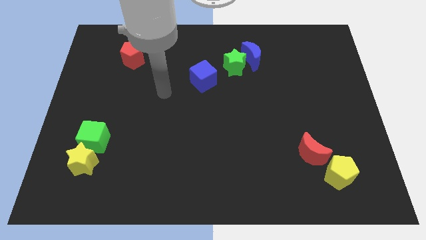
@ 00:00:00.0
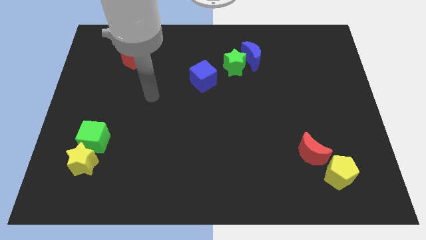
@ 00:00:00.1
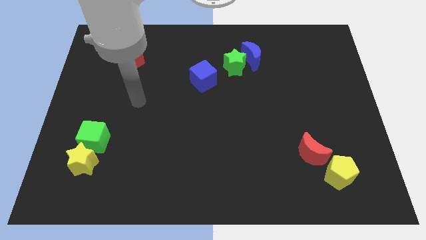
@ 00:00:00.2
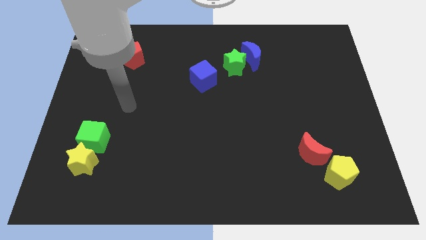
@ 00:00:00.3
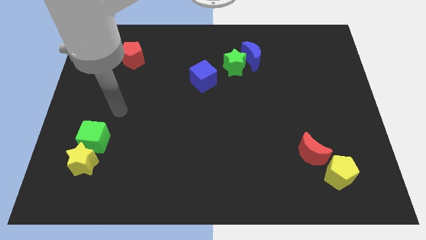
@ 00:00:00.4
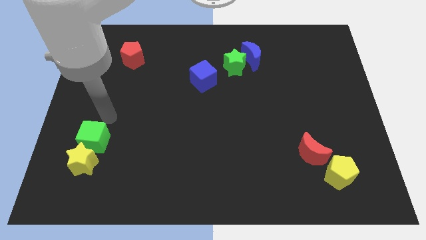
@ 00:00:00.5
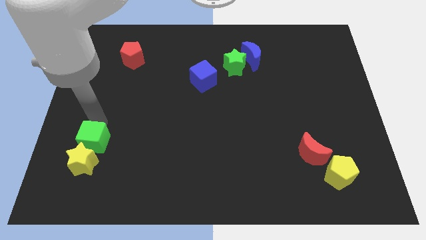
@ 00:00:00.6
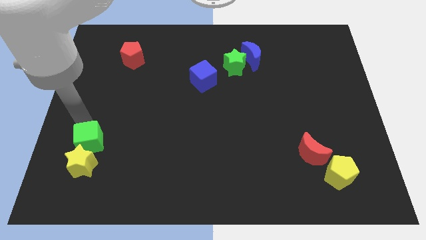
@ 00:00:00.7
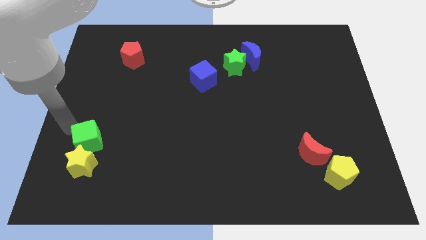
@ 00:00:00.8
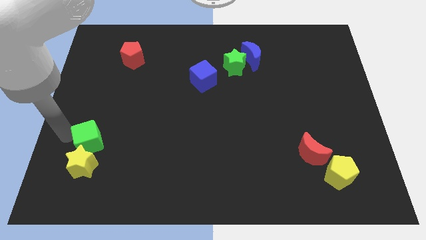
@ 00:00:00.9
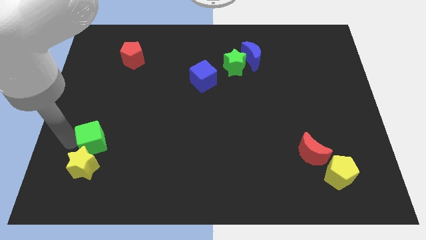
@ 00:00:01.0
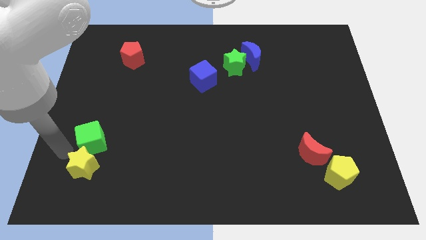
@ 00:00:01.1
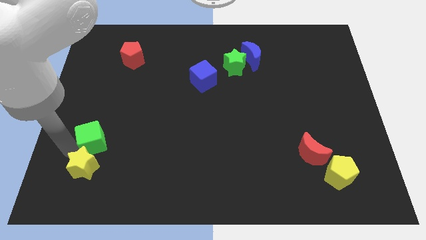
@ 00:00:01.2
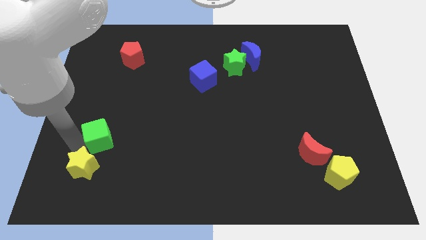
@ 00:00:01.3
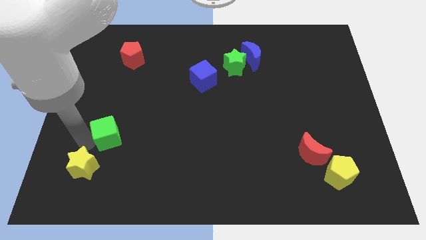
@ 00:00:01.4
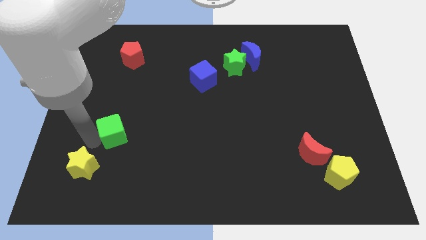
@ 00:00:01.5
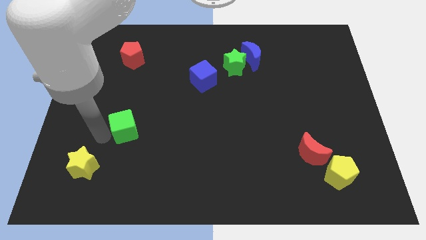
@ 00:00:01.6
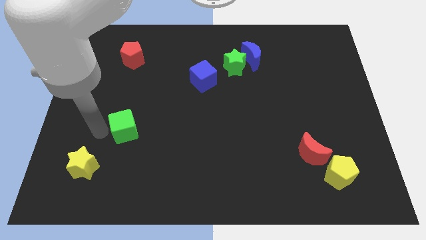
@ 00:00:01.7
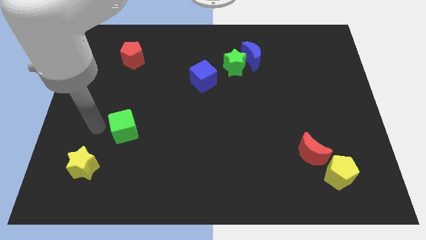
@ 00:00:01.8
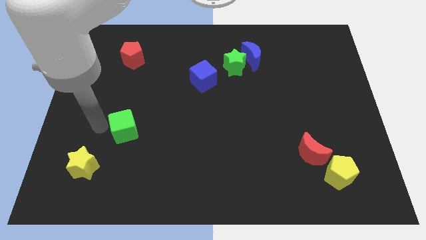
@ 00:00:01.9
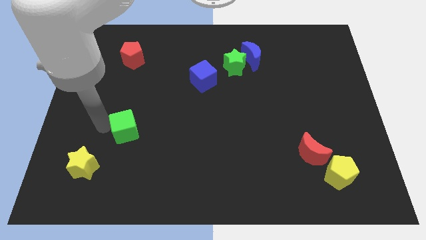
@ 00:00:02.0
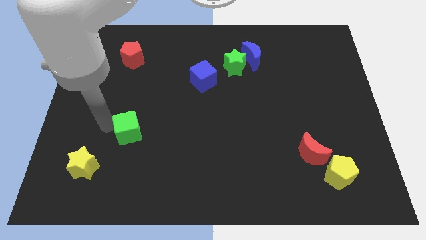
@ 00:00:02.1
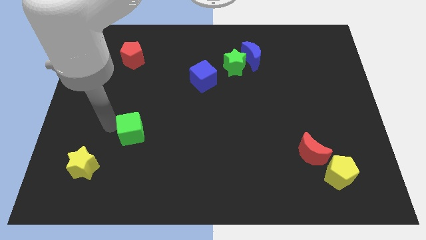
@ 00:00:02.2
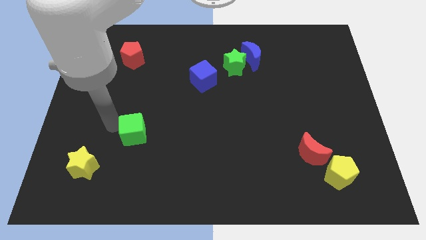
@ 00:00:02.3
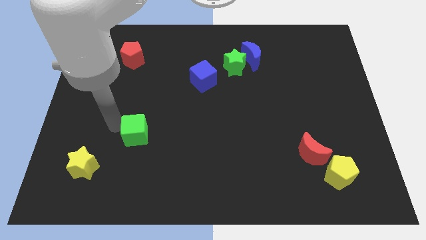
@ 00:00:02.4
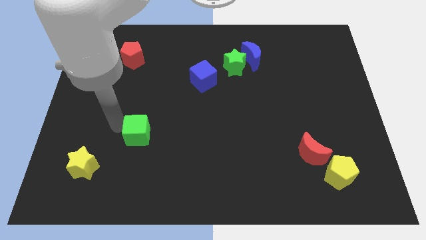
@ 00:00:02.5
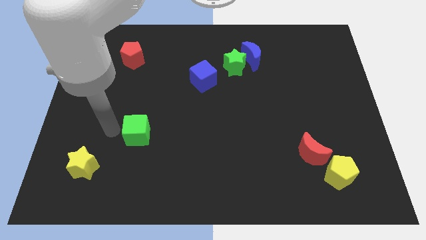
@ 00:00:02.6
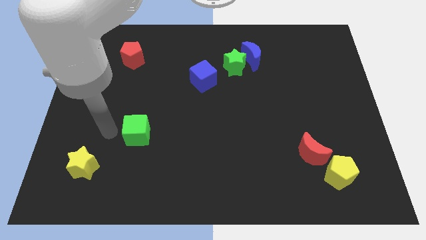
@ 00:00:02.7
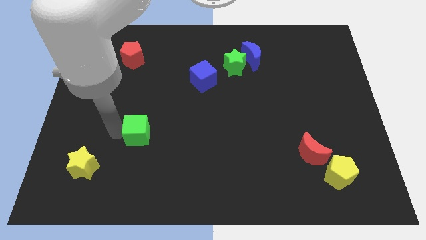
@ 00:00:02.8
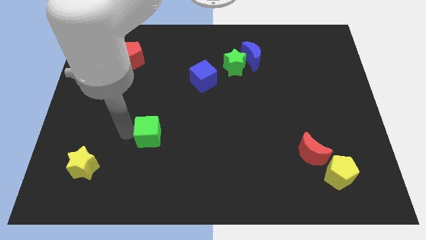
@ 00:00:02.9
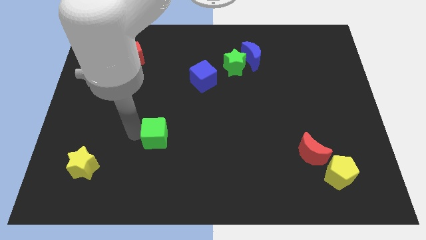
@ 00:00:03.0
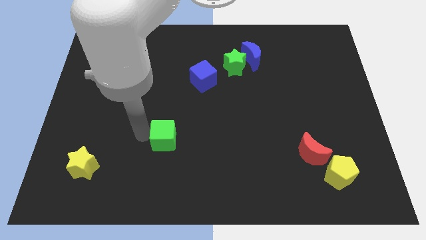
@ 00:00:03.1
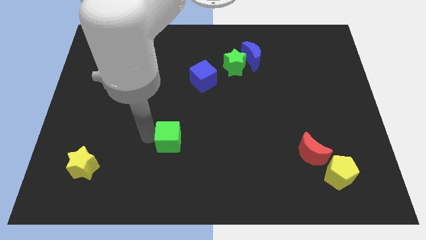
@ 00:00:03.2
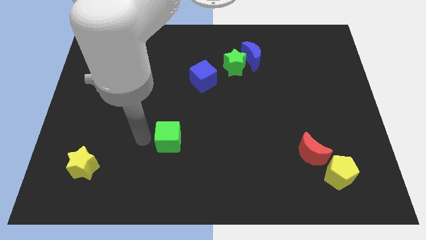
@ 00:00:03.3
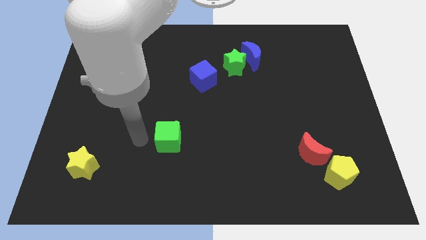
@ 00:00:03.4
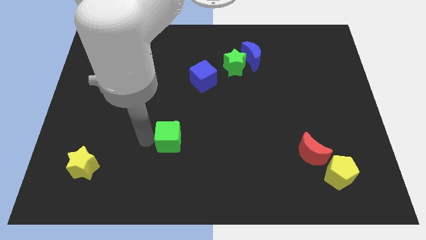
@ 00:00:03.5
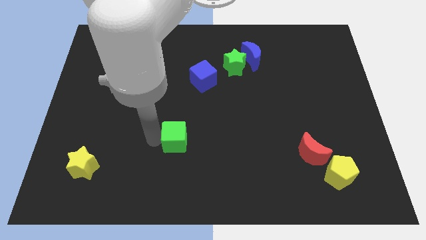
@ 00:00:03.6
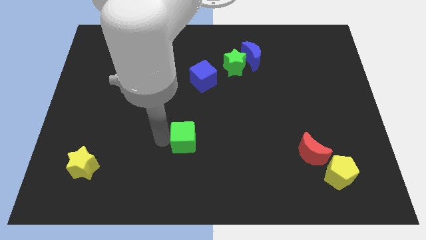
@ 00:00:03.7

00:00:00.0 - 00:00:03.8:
push the green cube to the right

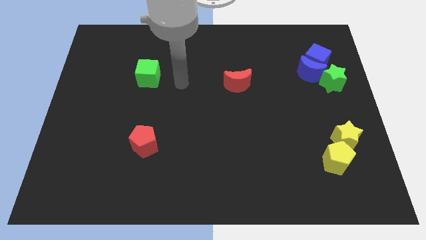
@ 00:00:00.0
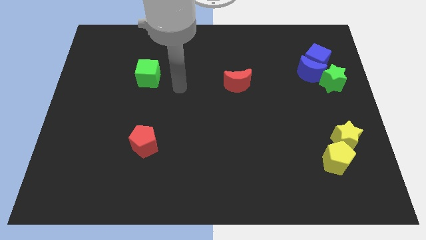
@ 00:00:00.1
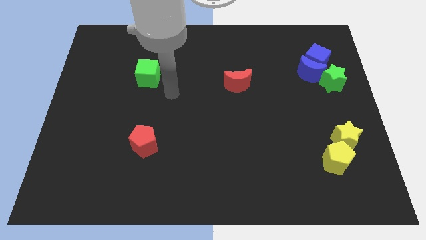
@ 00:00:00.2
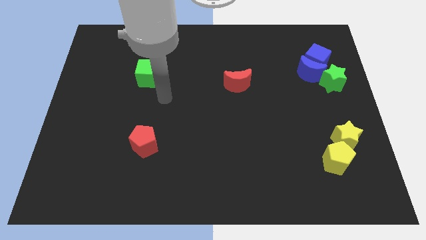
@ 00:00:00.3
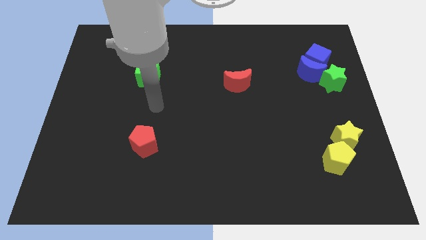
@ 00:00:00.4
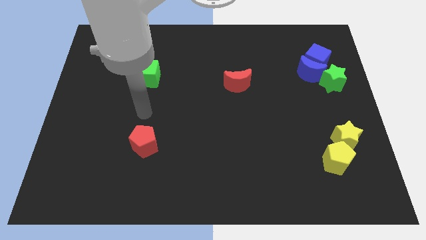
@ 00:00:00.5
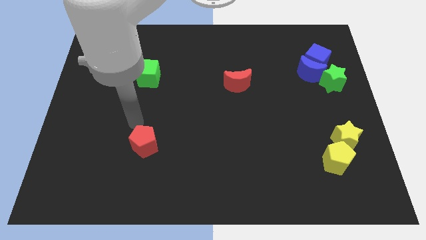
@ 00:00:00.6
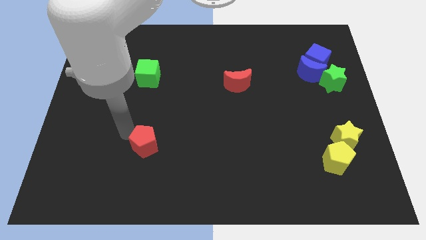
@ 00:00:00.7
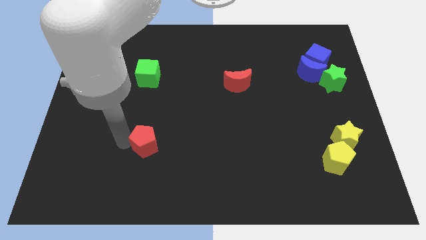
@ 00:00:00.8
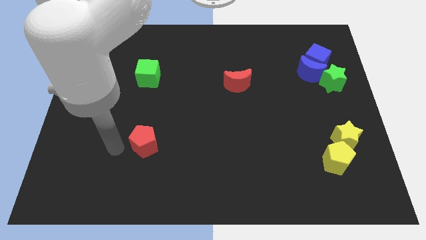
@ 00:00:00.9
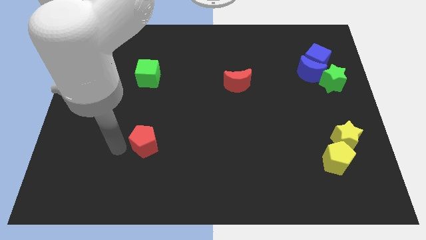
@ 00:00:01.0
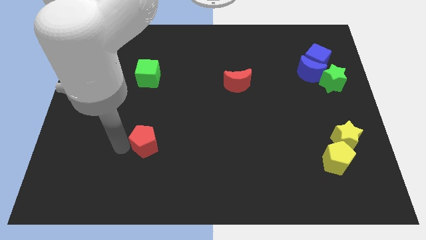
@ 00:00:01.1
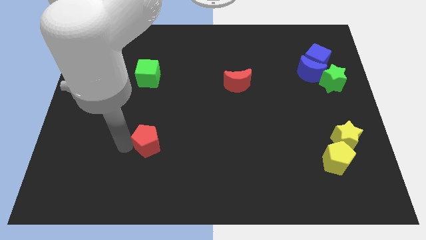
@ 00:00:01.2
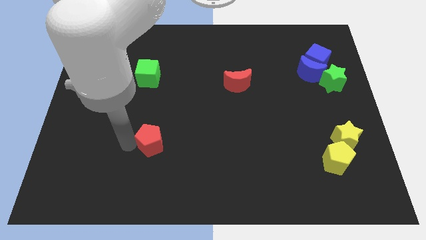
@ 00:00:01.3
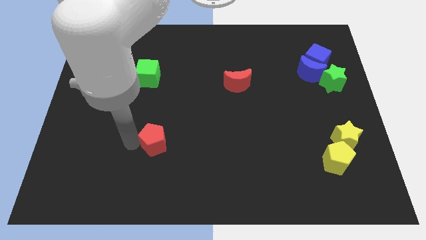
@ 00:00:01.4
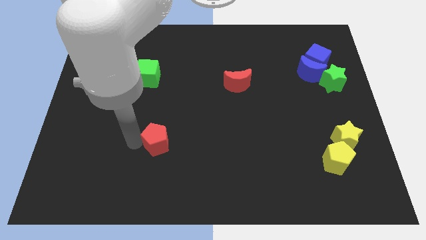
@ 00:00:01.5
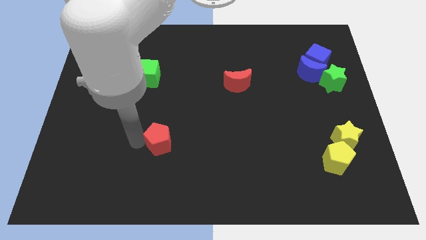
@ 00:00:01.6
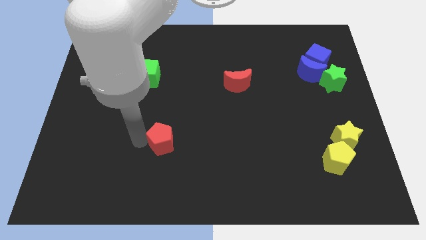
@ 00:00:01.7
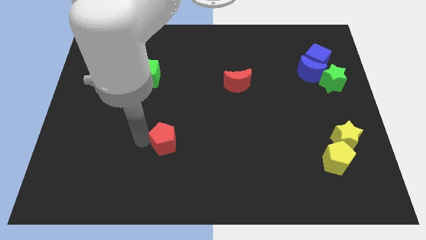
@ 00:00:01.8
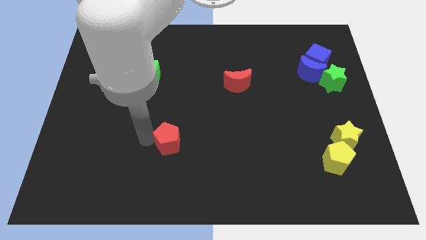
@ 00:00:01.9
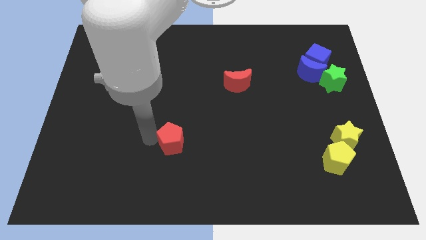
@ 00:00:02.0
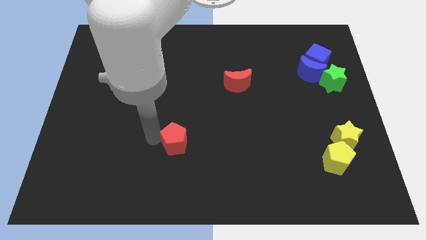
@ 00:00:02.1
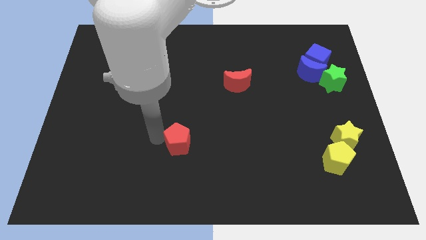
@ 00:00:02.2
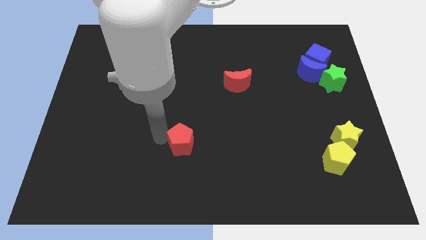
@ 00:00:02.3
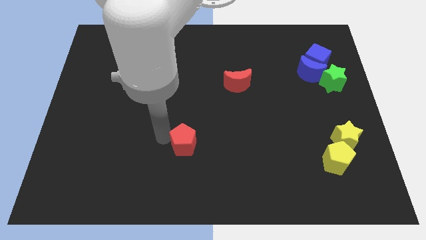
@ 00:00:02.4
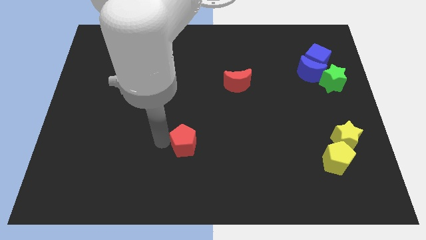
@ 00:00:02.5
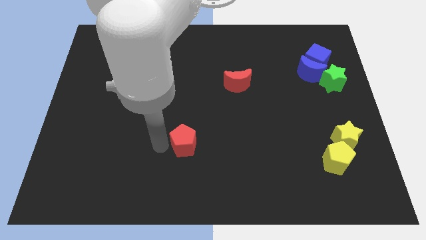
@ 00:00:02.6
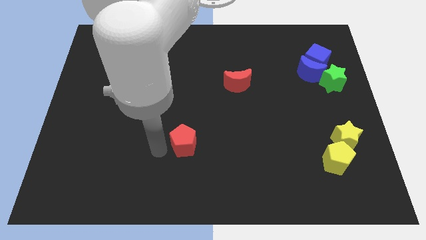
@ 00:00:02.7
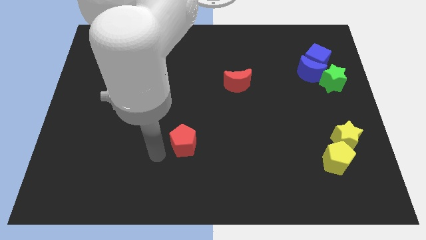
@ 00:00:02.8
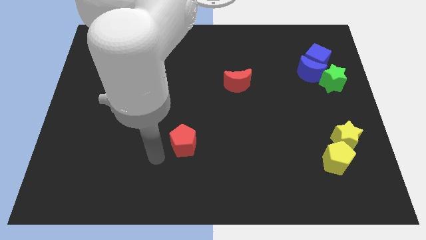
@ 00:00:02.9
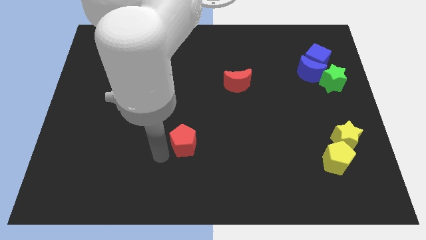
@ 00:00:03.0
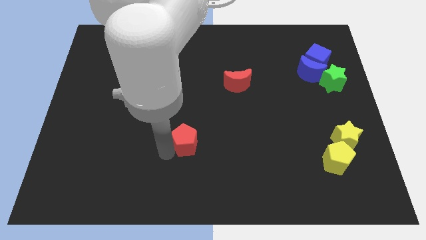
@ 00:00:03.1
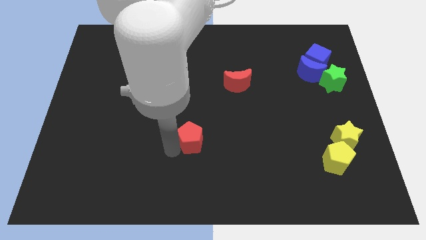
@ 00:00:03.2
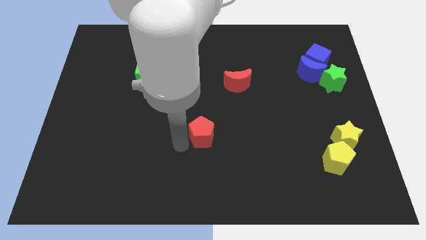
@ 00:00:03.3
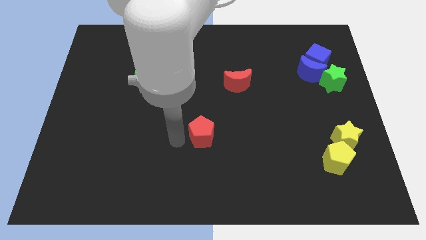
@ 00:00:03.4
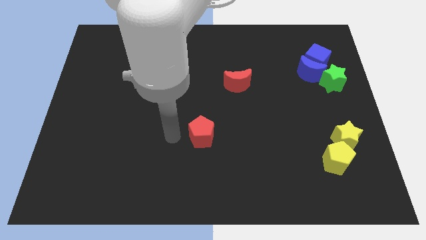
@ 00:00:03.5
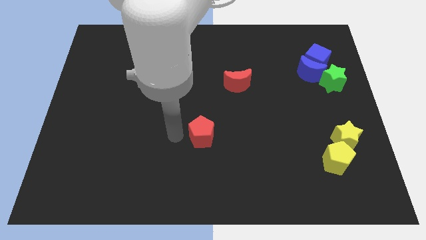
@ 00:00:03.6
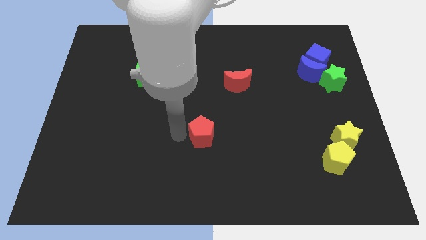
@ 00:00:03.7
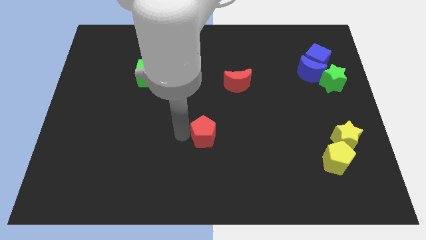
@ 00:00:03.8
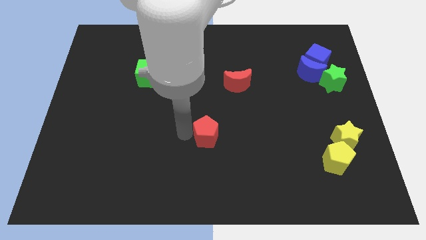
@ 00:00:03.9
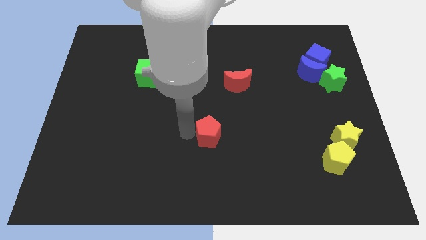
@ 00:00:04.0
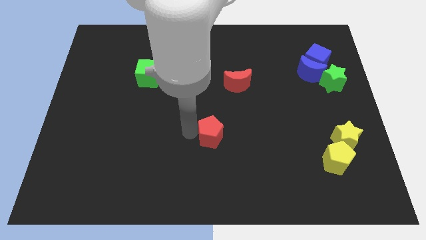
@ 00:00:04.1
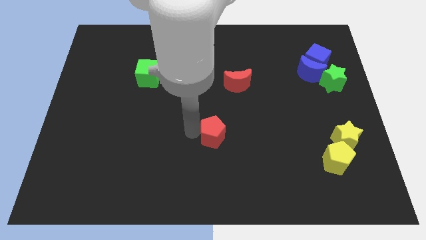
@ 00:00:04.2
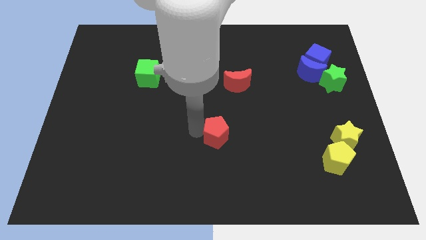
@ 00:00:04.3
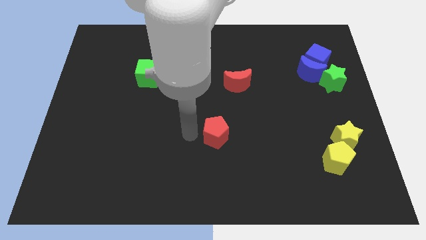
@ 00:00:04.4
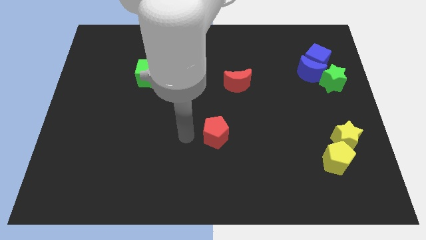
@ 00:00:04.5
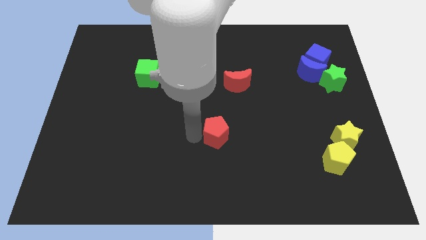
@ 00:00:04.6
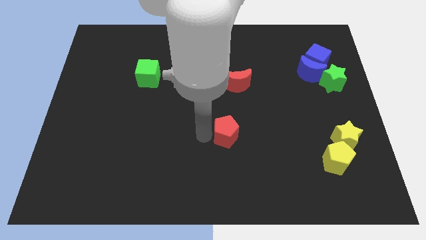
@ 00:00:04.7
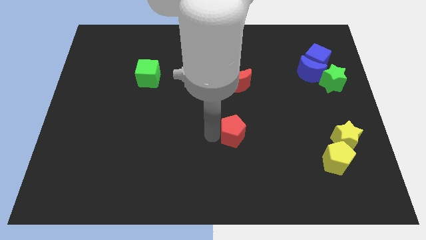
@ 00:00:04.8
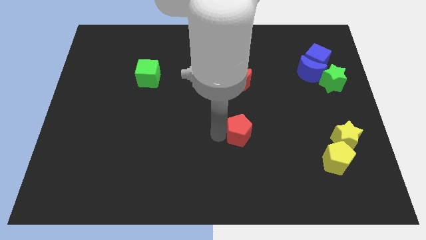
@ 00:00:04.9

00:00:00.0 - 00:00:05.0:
push the red pentagon right
